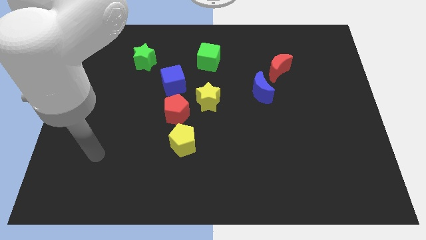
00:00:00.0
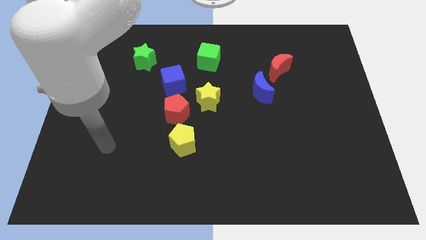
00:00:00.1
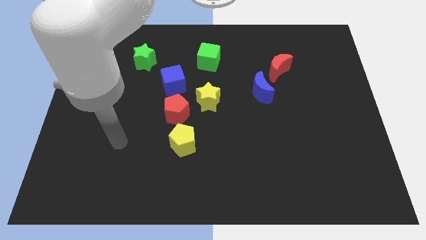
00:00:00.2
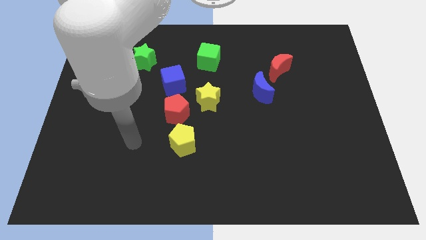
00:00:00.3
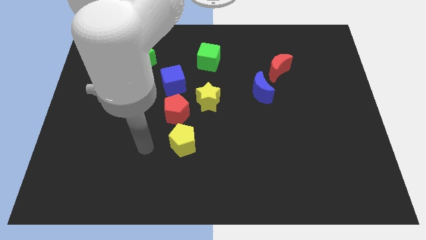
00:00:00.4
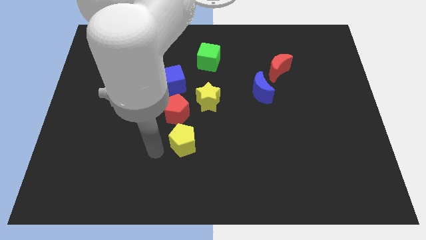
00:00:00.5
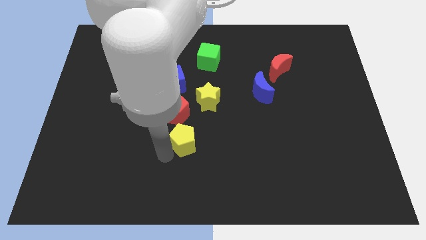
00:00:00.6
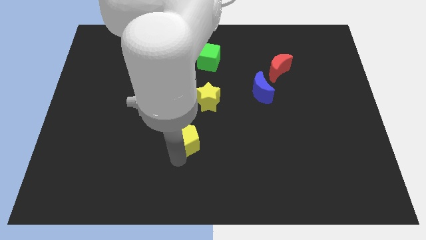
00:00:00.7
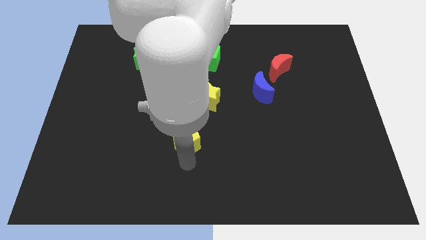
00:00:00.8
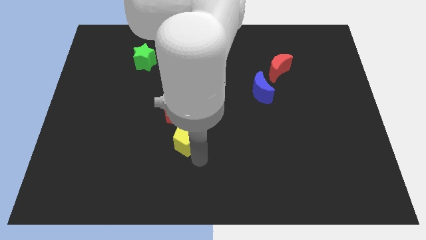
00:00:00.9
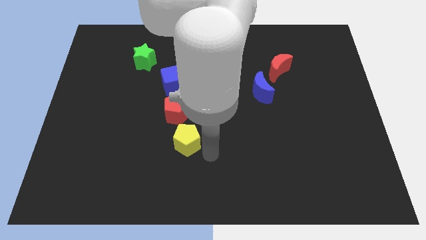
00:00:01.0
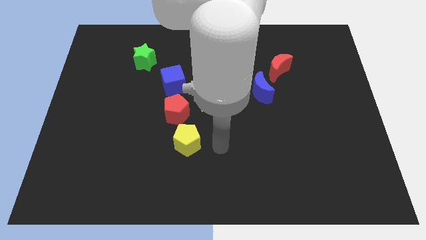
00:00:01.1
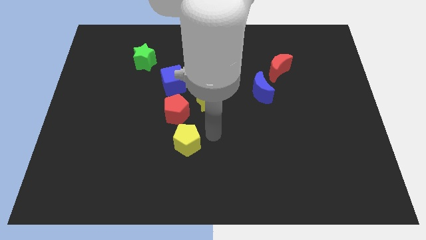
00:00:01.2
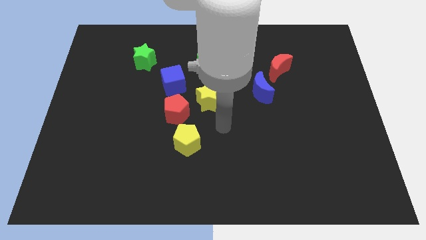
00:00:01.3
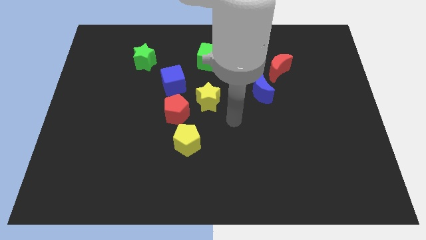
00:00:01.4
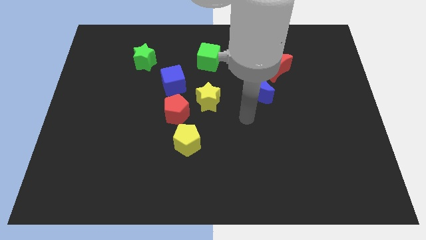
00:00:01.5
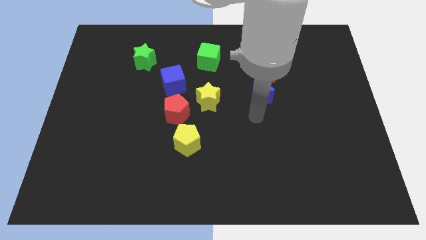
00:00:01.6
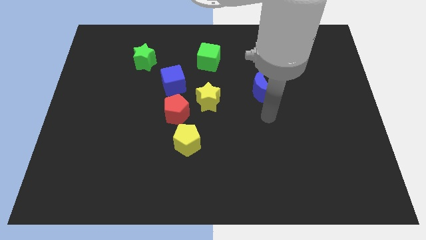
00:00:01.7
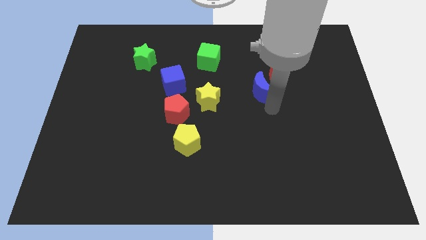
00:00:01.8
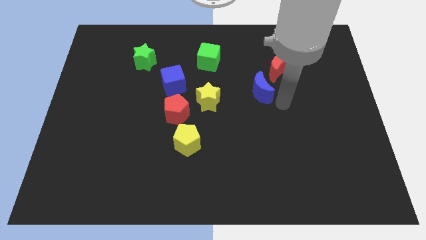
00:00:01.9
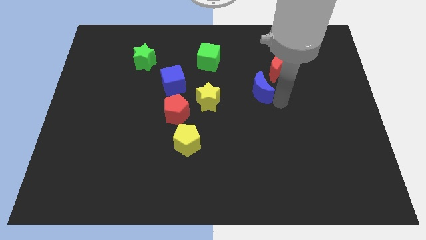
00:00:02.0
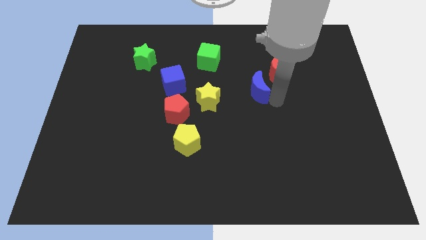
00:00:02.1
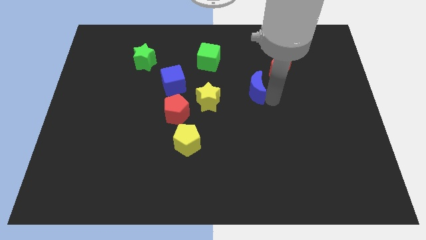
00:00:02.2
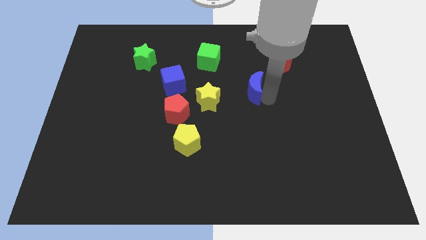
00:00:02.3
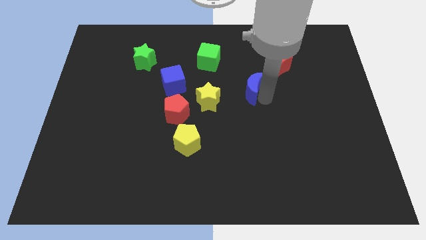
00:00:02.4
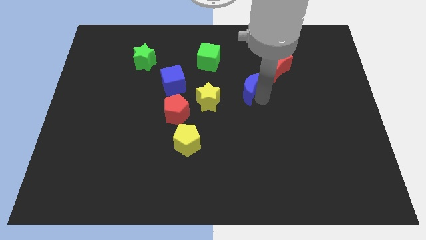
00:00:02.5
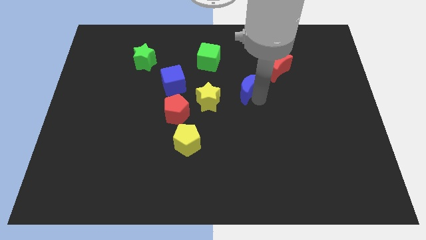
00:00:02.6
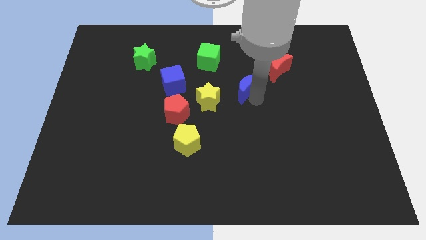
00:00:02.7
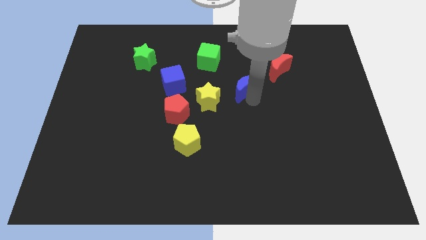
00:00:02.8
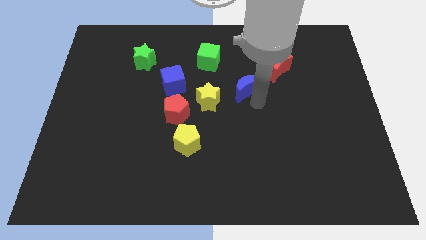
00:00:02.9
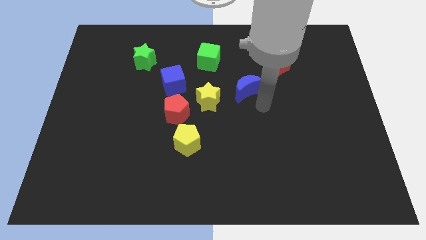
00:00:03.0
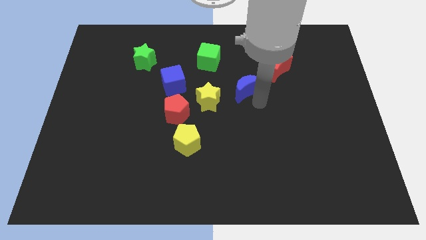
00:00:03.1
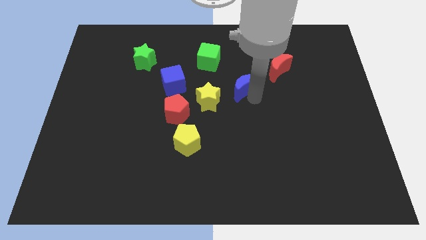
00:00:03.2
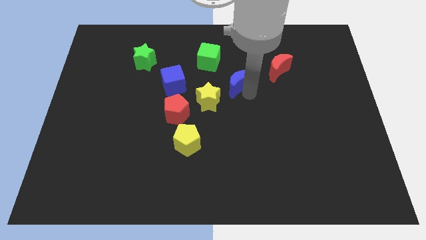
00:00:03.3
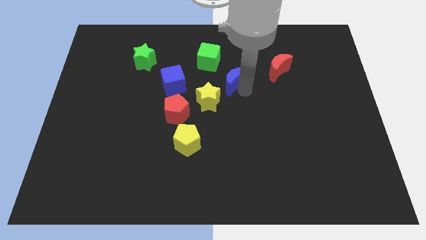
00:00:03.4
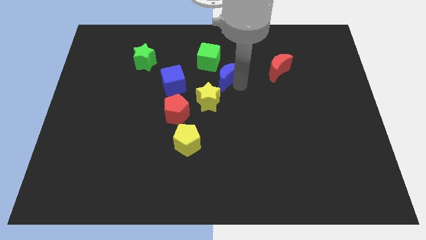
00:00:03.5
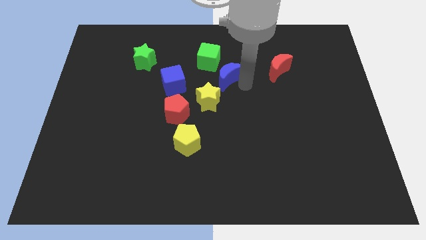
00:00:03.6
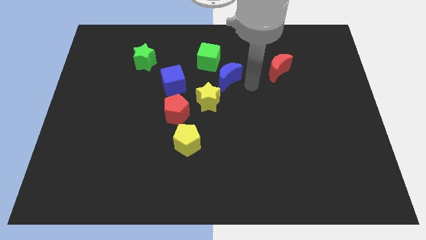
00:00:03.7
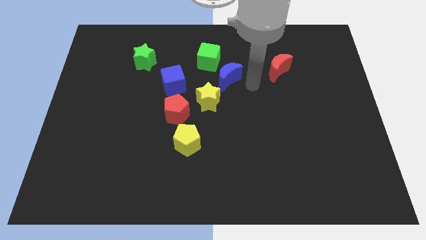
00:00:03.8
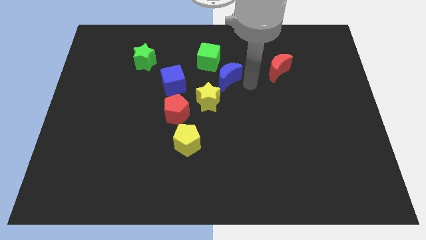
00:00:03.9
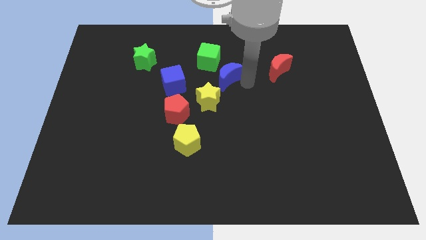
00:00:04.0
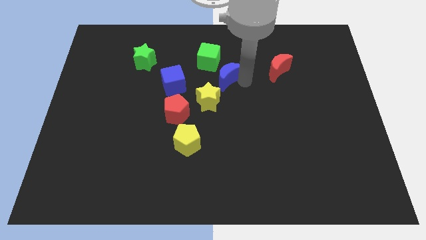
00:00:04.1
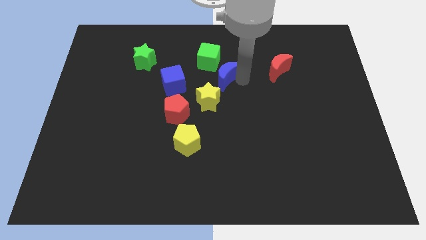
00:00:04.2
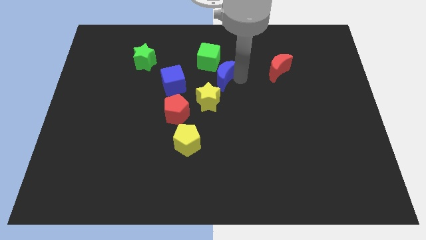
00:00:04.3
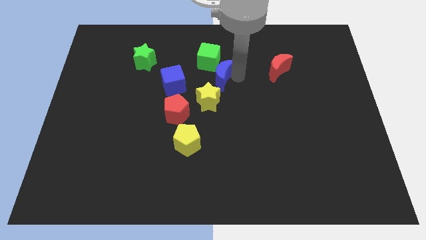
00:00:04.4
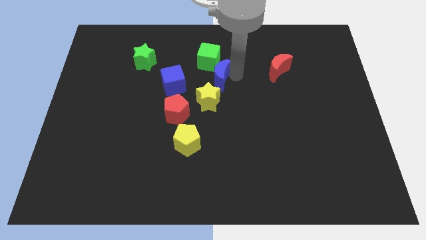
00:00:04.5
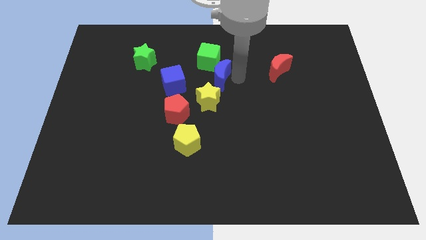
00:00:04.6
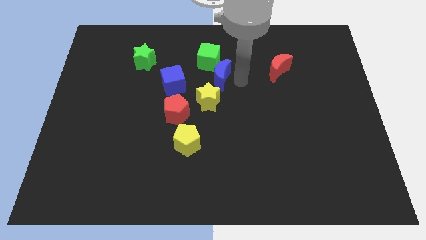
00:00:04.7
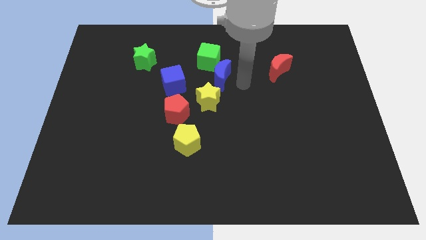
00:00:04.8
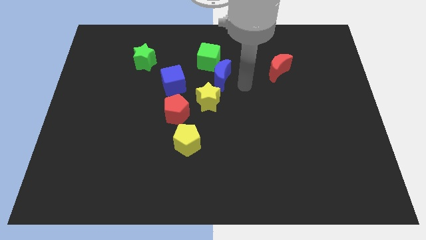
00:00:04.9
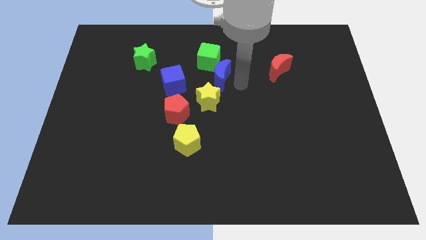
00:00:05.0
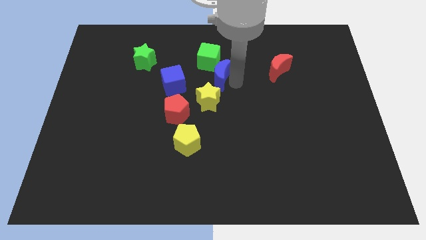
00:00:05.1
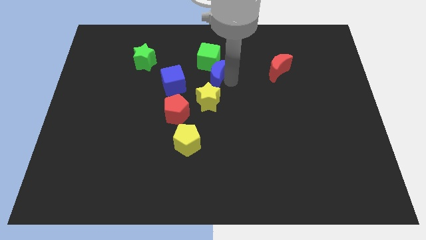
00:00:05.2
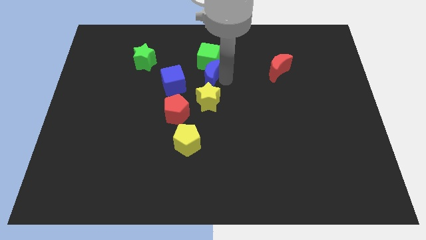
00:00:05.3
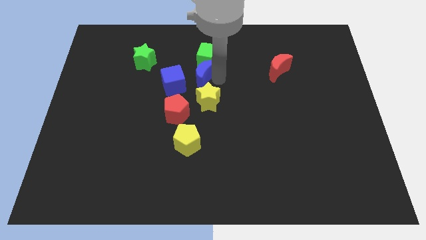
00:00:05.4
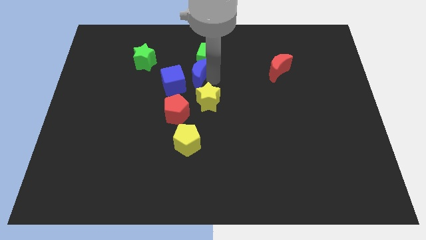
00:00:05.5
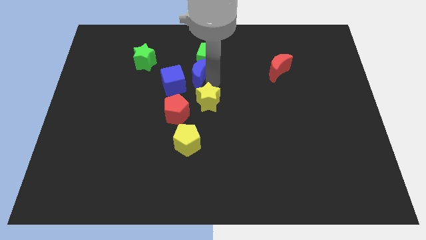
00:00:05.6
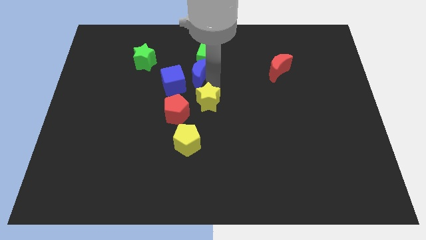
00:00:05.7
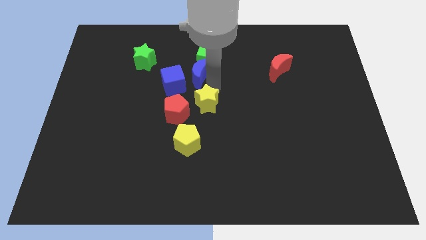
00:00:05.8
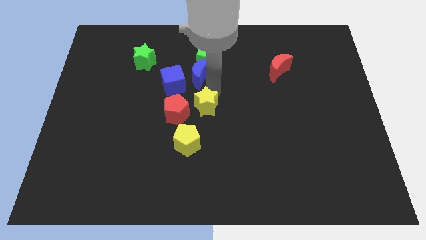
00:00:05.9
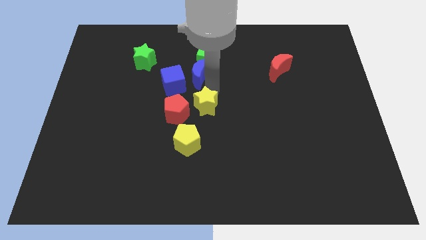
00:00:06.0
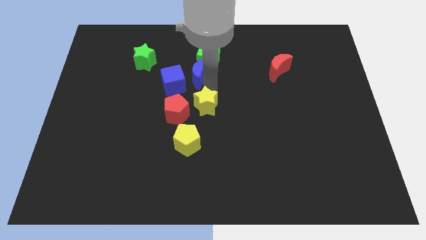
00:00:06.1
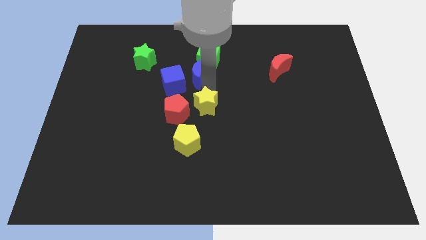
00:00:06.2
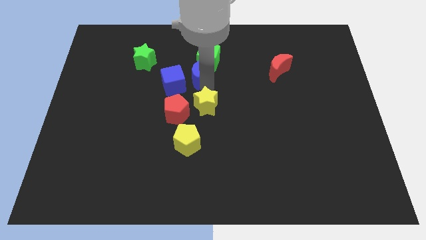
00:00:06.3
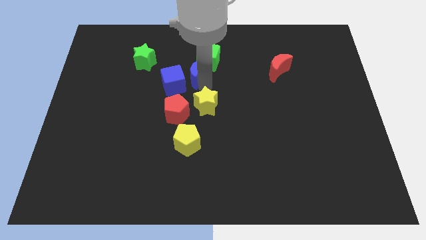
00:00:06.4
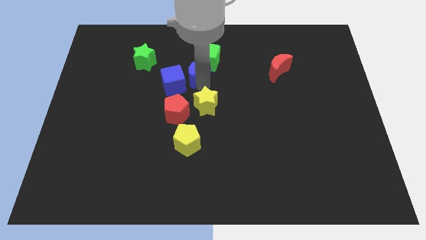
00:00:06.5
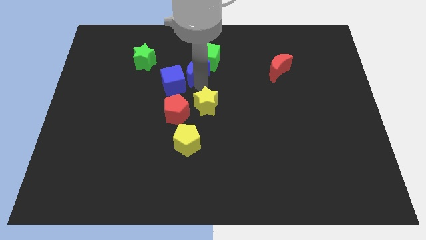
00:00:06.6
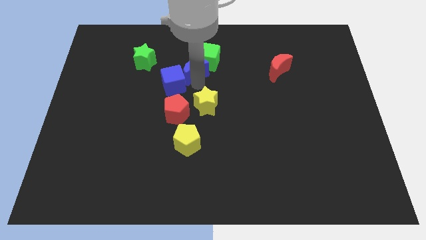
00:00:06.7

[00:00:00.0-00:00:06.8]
slide the blue moon to the left side of the green cube
